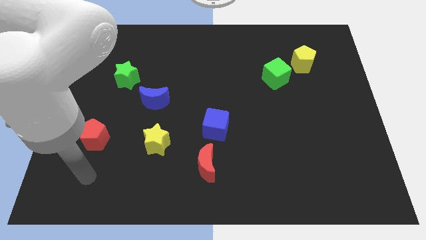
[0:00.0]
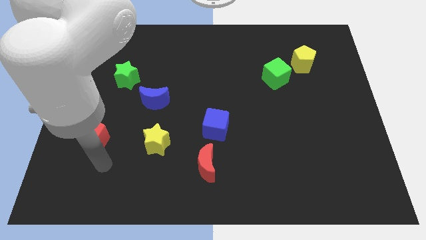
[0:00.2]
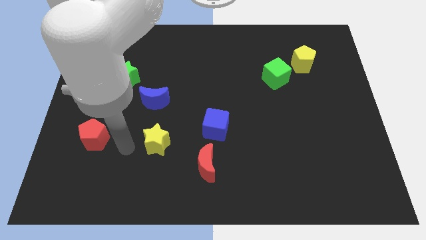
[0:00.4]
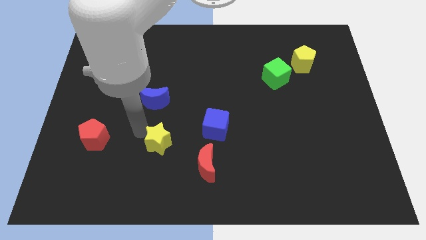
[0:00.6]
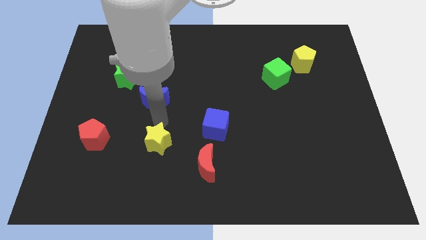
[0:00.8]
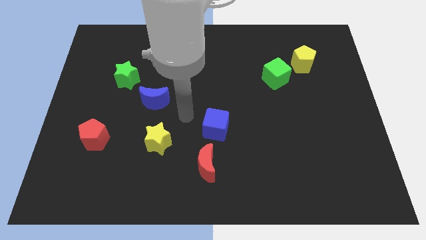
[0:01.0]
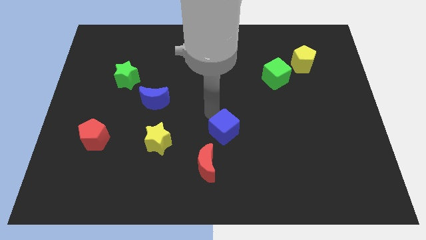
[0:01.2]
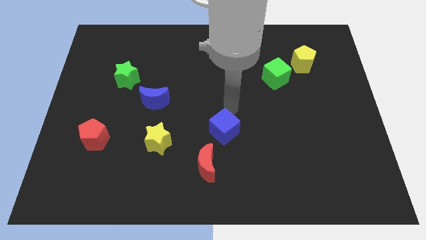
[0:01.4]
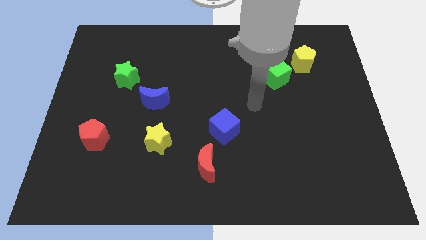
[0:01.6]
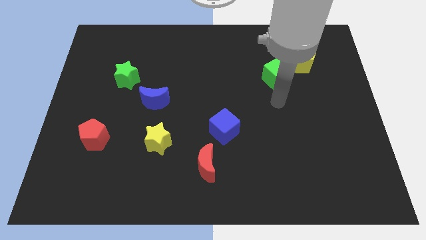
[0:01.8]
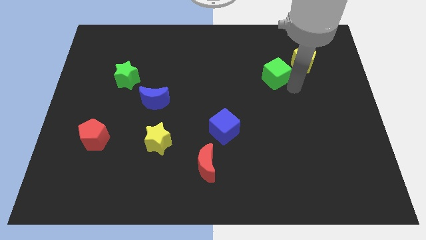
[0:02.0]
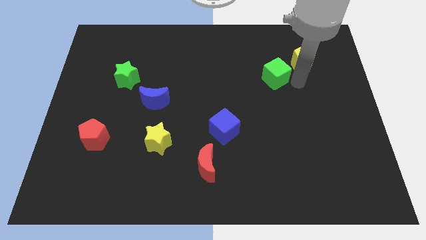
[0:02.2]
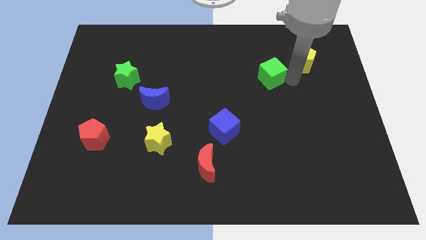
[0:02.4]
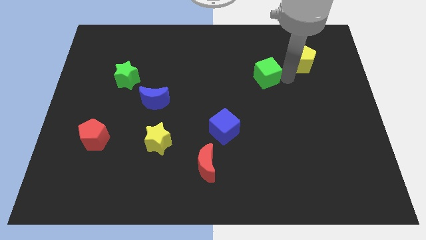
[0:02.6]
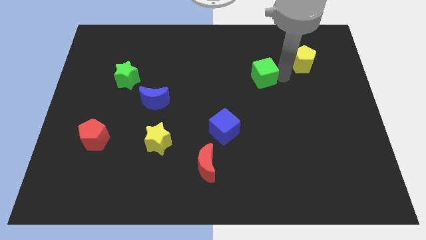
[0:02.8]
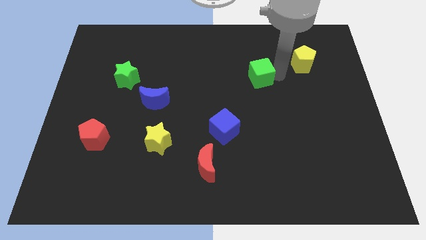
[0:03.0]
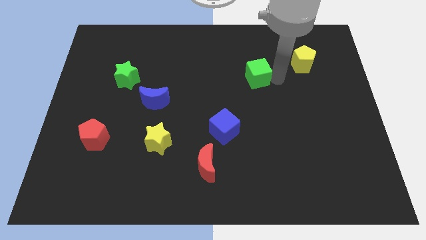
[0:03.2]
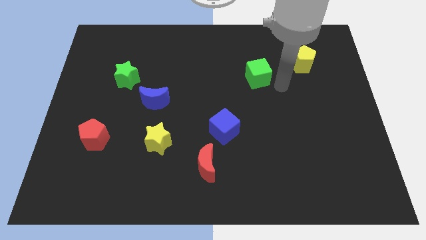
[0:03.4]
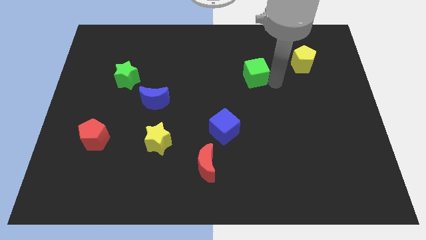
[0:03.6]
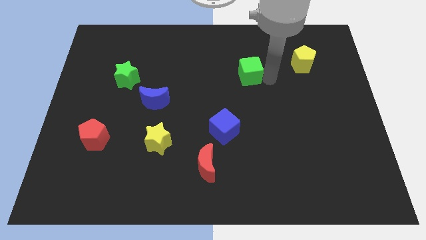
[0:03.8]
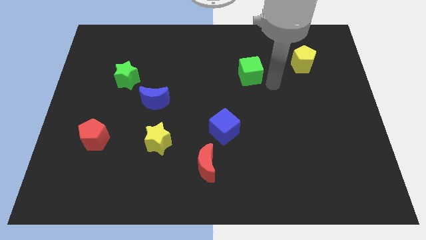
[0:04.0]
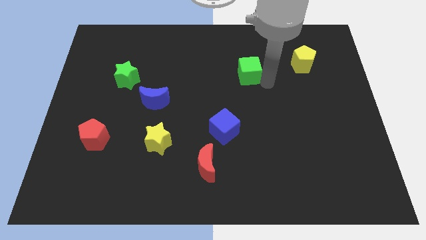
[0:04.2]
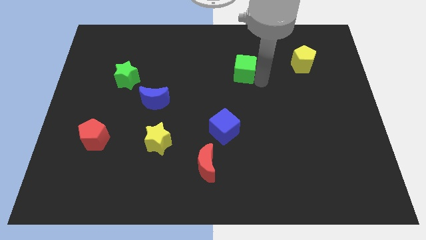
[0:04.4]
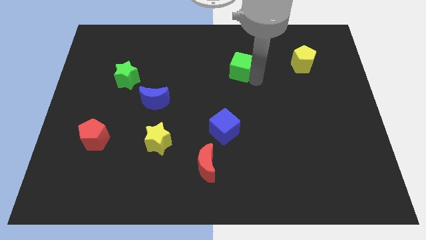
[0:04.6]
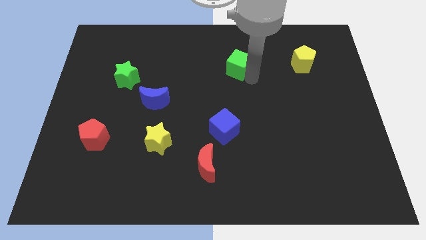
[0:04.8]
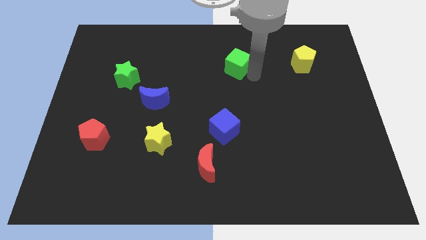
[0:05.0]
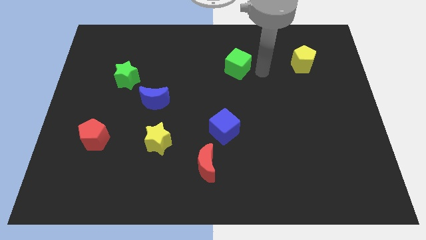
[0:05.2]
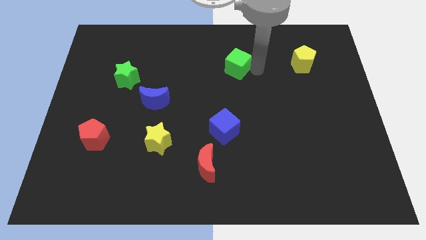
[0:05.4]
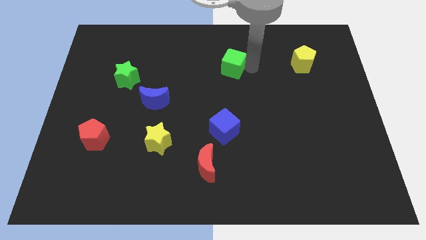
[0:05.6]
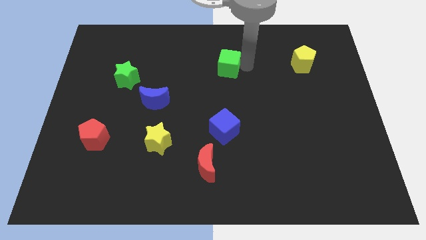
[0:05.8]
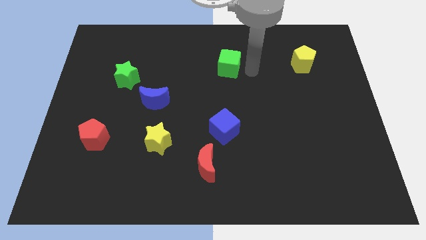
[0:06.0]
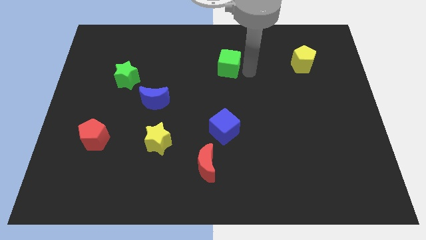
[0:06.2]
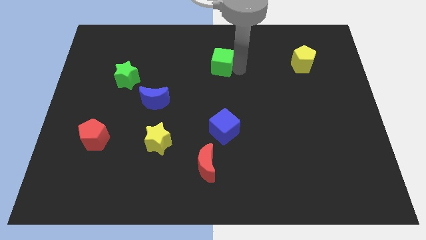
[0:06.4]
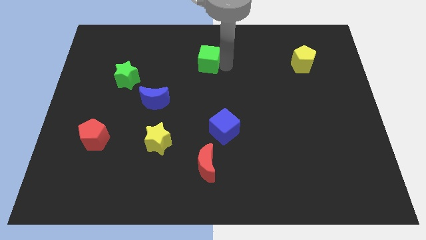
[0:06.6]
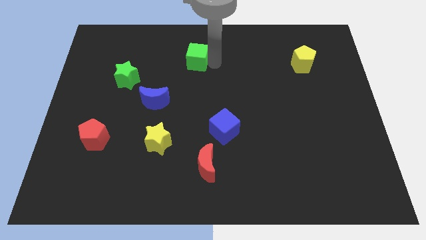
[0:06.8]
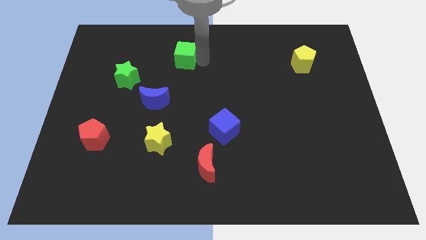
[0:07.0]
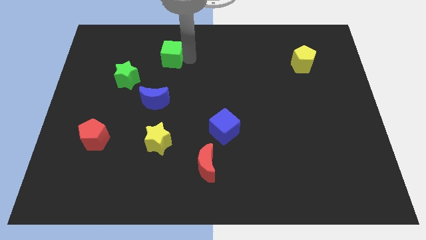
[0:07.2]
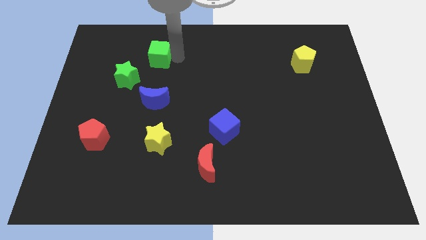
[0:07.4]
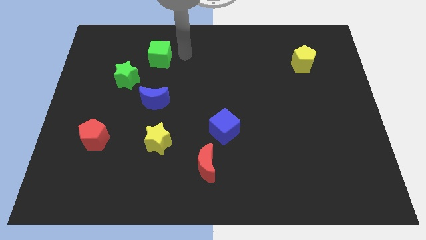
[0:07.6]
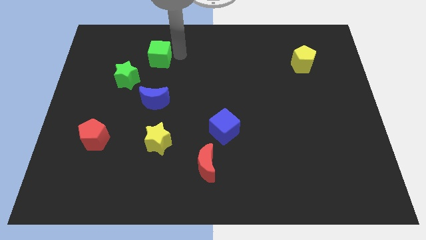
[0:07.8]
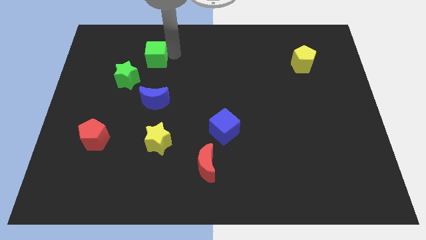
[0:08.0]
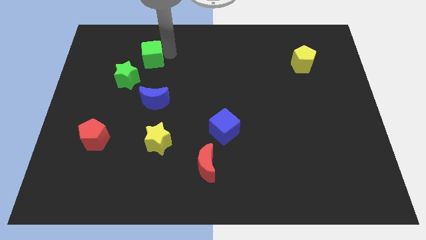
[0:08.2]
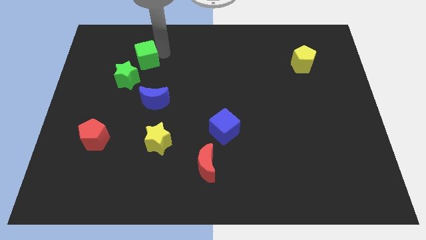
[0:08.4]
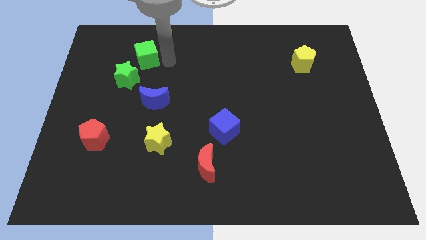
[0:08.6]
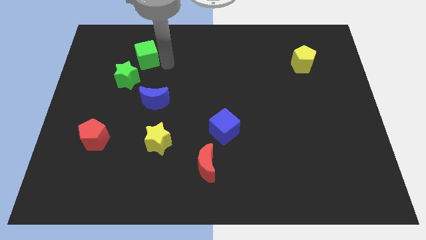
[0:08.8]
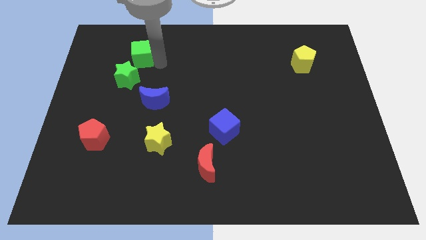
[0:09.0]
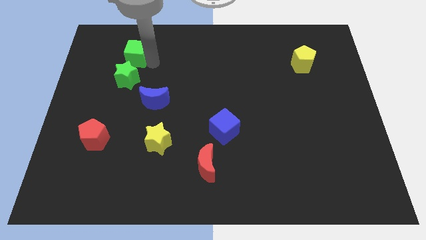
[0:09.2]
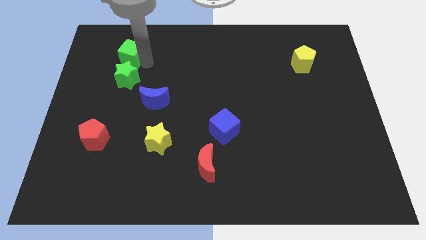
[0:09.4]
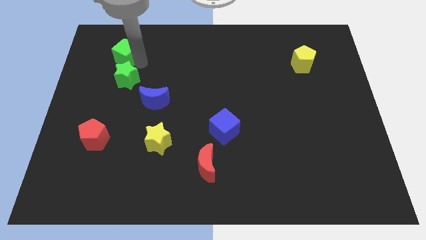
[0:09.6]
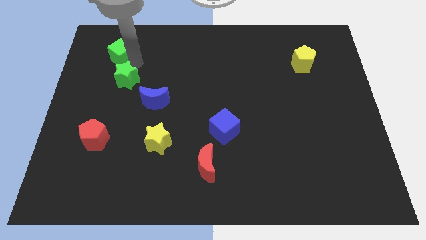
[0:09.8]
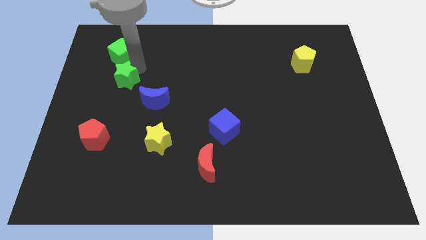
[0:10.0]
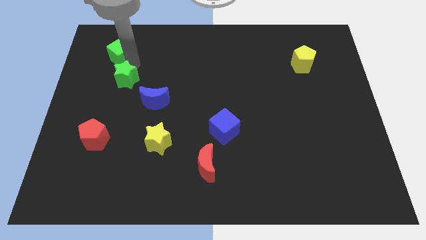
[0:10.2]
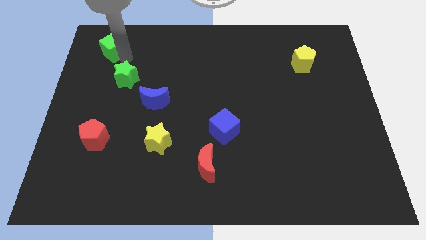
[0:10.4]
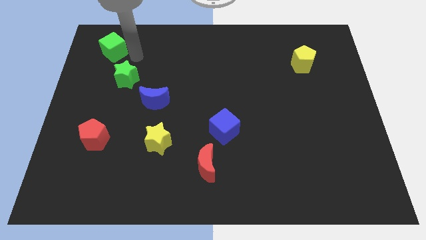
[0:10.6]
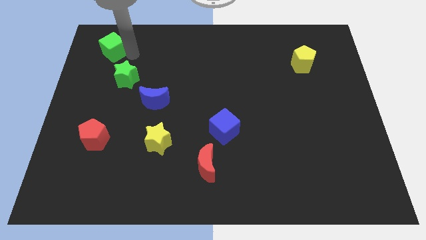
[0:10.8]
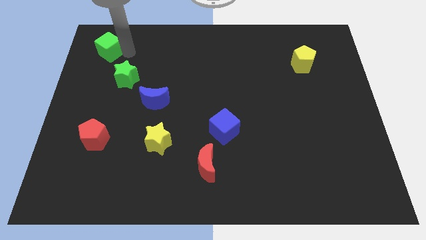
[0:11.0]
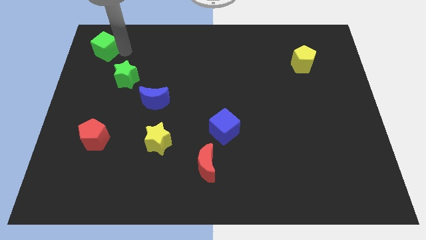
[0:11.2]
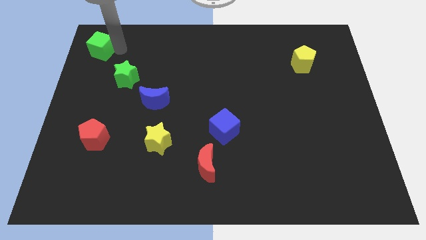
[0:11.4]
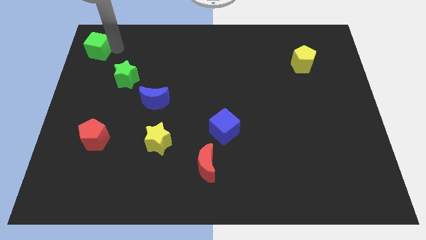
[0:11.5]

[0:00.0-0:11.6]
push the green cube to the upper left corner

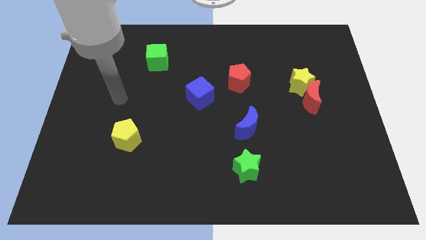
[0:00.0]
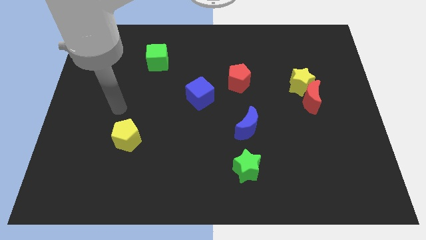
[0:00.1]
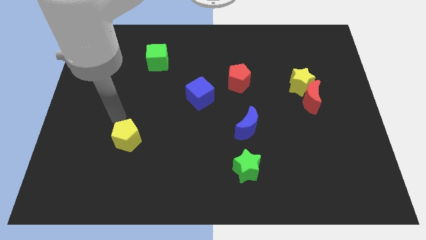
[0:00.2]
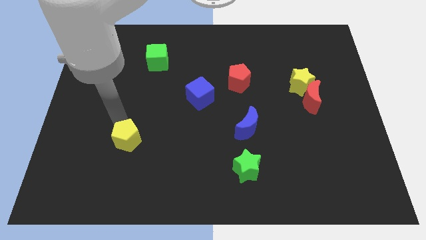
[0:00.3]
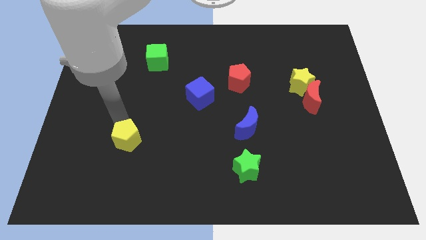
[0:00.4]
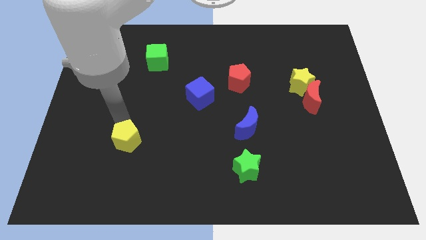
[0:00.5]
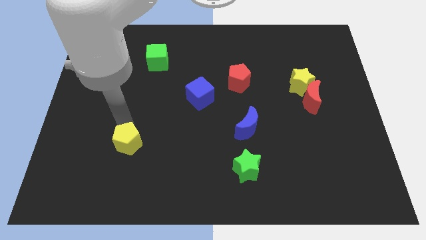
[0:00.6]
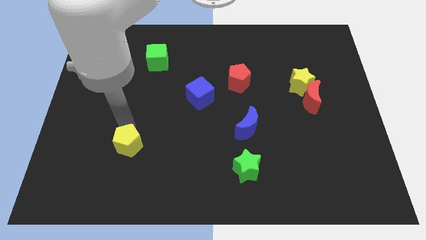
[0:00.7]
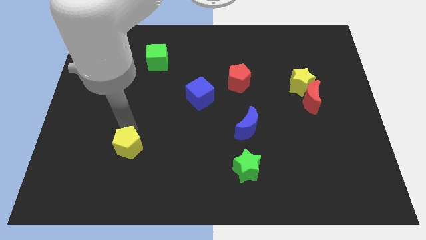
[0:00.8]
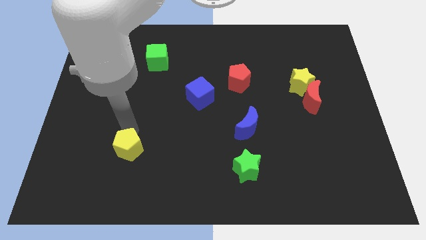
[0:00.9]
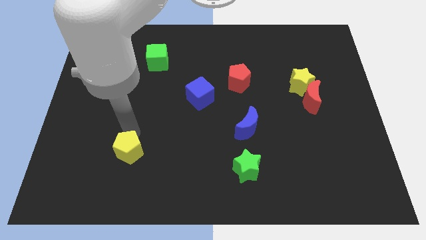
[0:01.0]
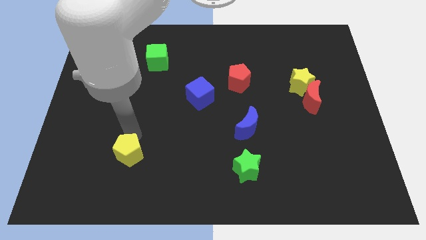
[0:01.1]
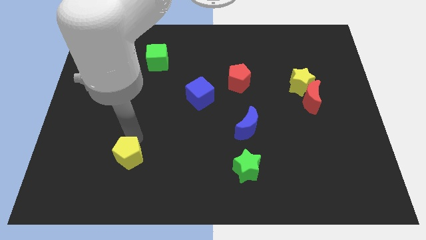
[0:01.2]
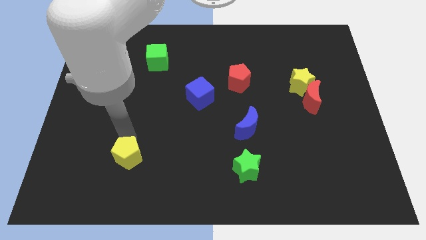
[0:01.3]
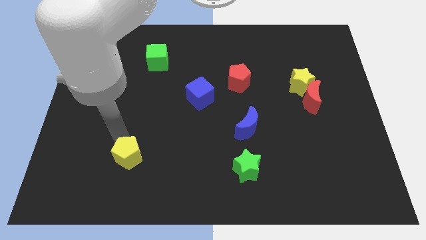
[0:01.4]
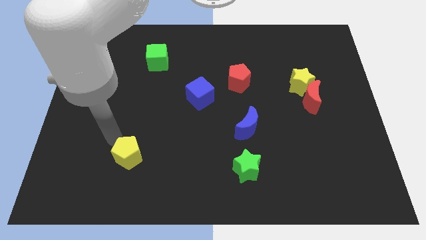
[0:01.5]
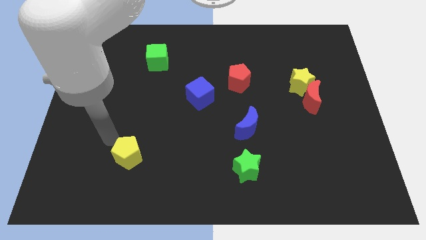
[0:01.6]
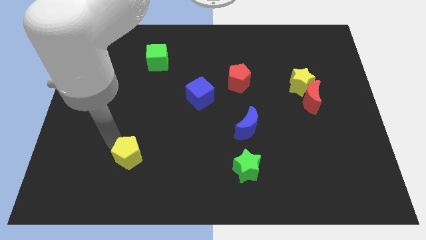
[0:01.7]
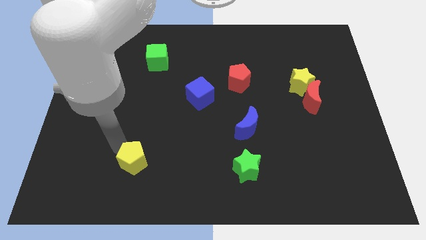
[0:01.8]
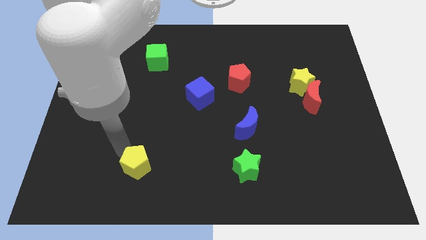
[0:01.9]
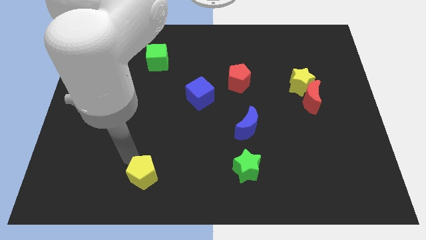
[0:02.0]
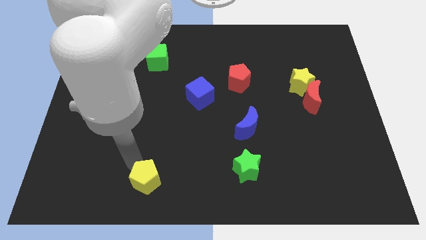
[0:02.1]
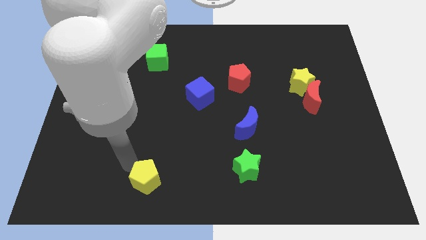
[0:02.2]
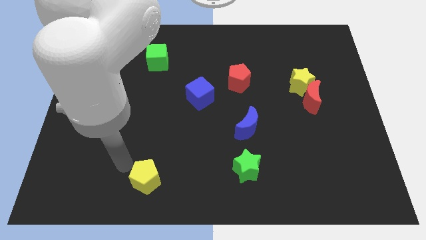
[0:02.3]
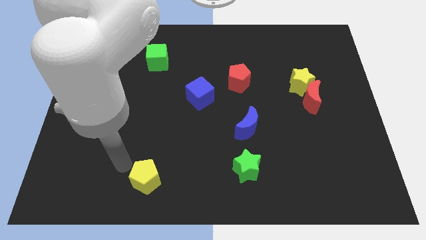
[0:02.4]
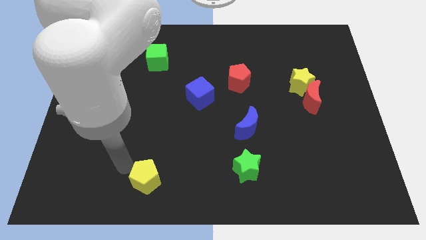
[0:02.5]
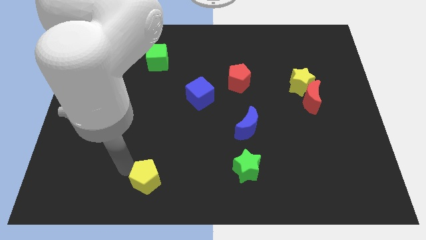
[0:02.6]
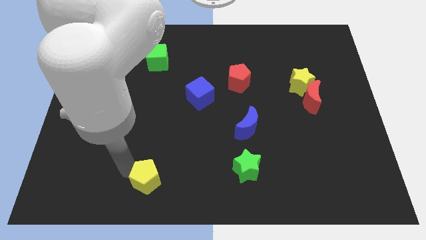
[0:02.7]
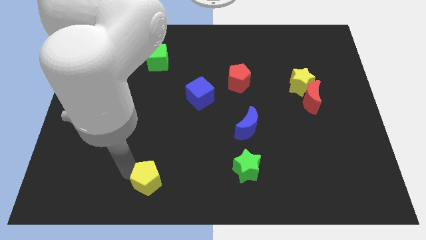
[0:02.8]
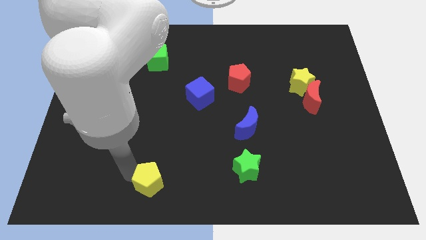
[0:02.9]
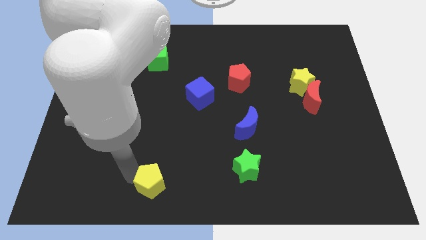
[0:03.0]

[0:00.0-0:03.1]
slide the yellow pentagon to the bottom side
